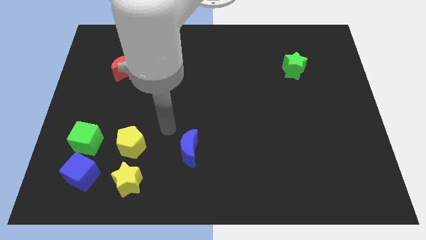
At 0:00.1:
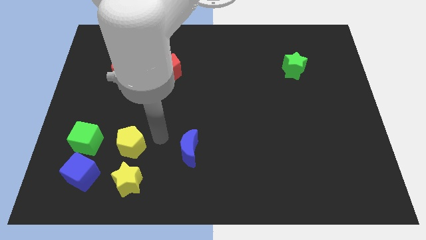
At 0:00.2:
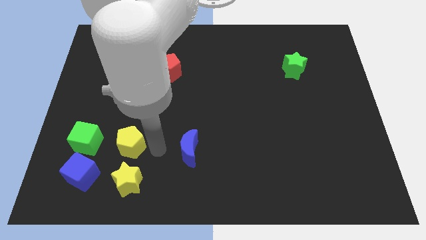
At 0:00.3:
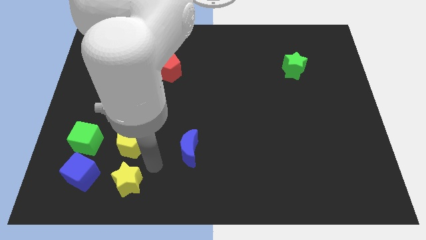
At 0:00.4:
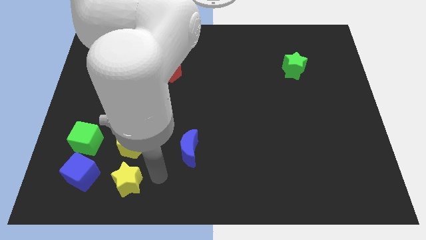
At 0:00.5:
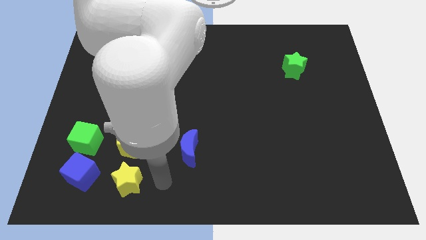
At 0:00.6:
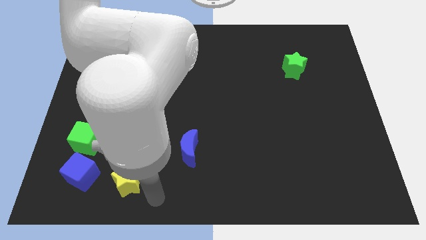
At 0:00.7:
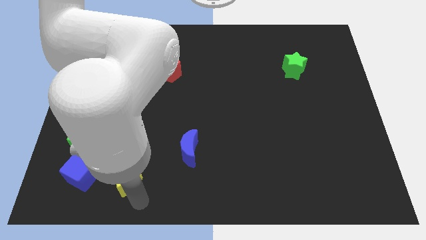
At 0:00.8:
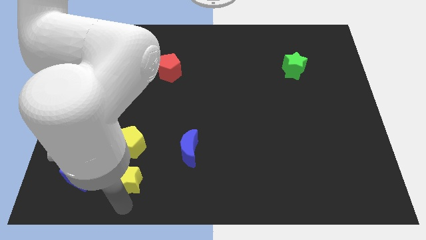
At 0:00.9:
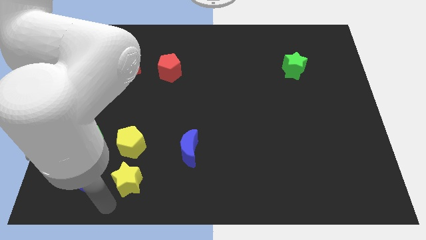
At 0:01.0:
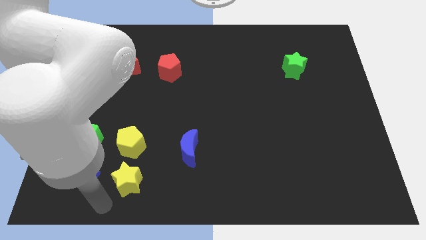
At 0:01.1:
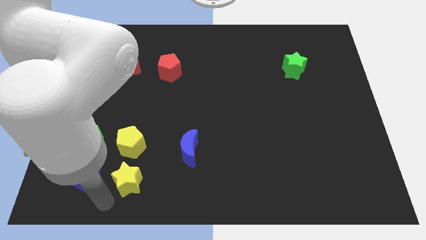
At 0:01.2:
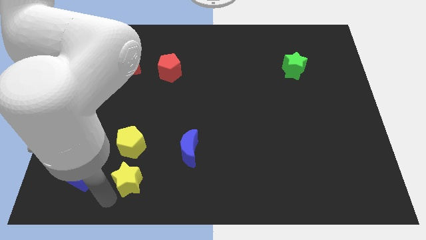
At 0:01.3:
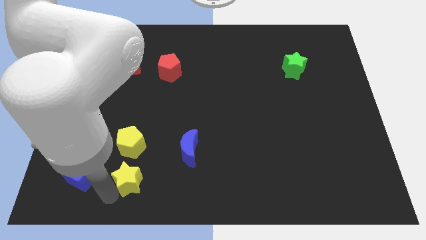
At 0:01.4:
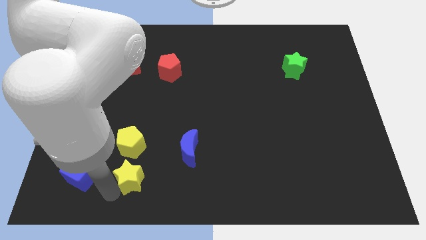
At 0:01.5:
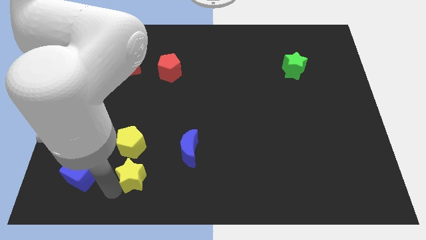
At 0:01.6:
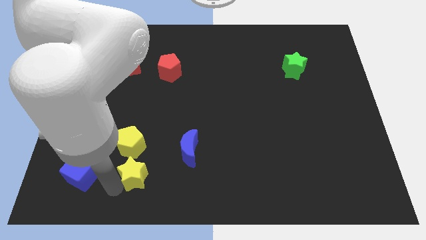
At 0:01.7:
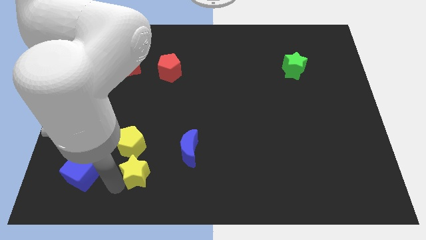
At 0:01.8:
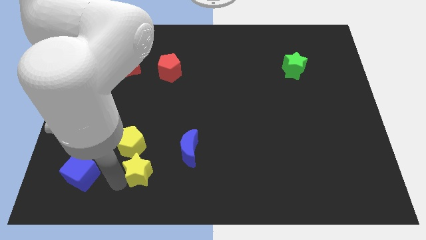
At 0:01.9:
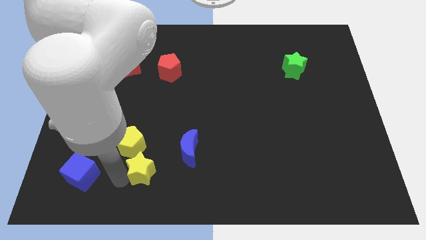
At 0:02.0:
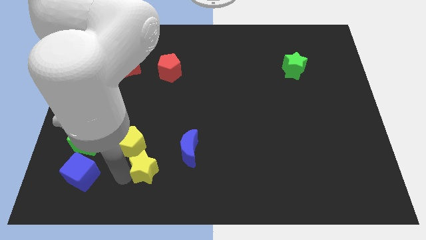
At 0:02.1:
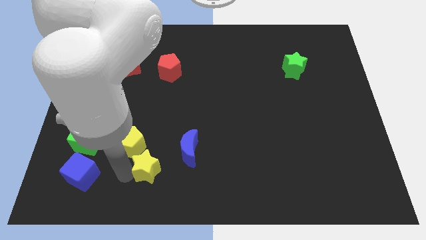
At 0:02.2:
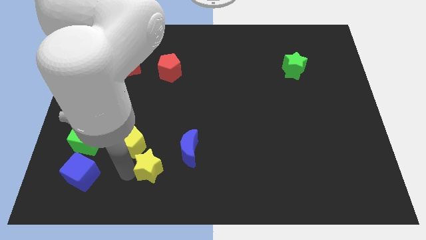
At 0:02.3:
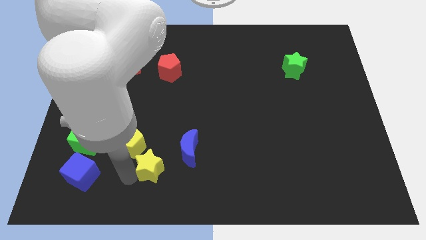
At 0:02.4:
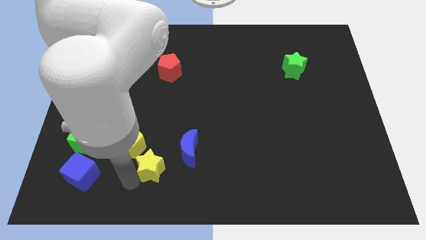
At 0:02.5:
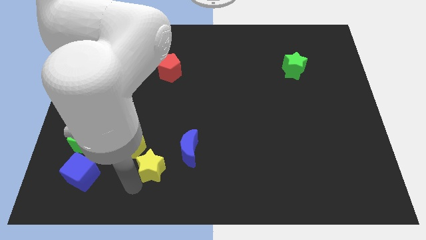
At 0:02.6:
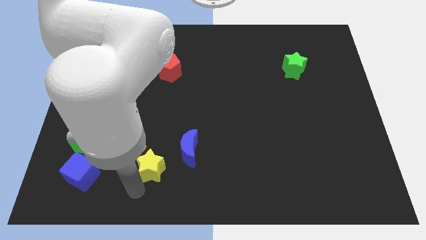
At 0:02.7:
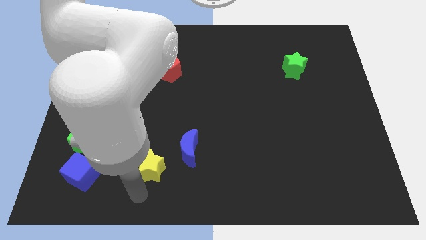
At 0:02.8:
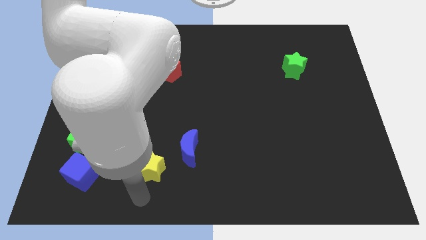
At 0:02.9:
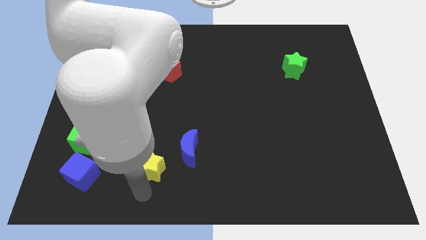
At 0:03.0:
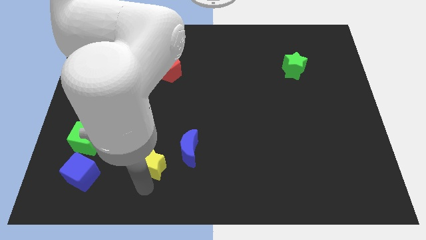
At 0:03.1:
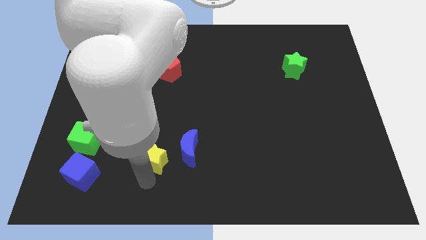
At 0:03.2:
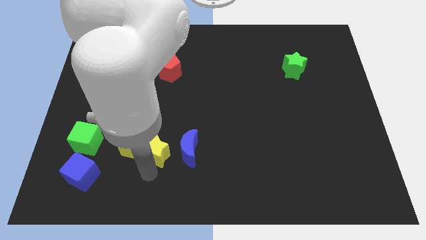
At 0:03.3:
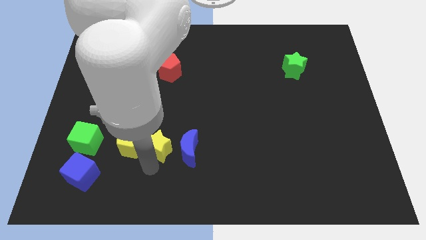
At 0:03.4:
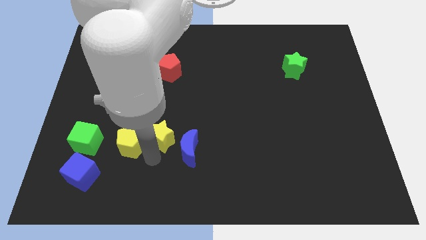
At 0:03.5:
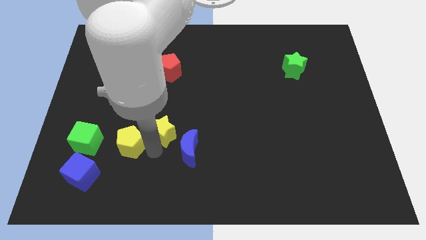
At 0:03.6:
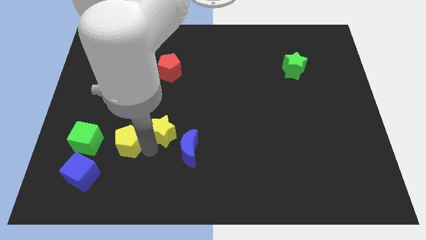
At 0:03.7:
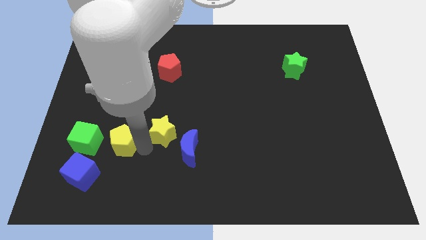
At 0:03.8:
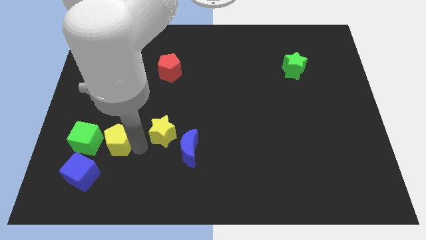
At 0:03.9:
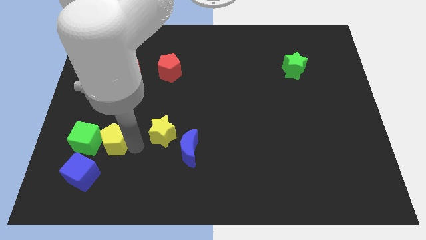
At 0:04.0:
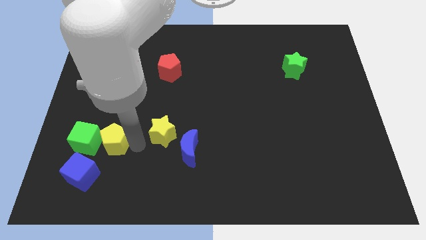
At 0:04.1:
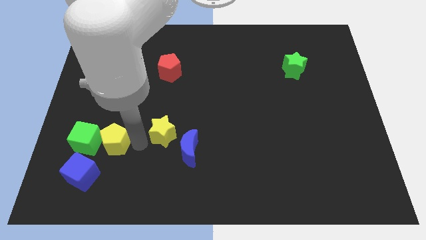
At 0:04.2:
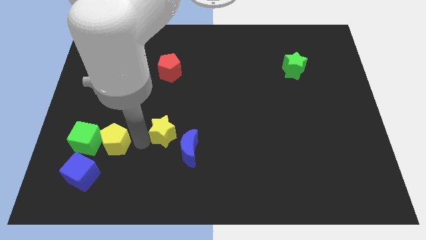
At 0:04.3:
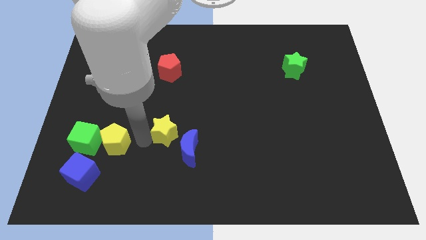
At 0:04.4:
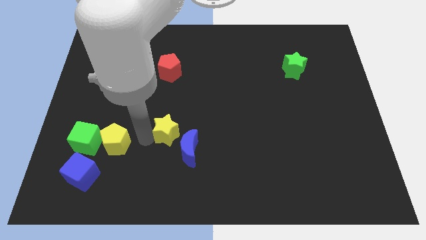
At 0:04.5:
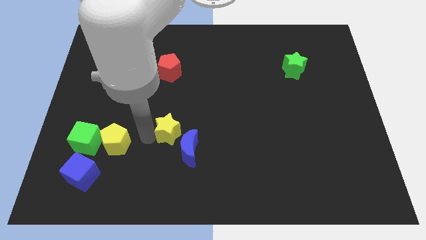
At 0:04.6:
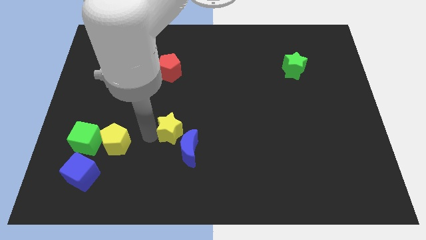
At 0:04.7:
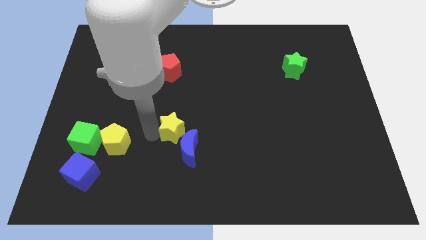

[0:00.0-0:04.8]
move the yellow star to the middle of the board

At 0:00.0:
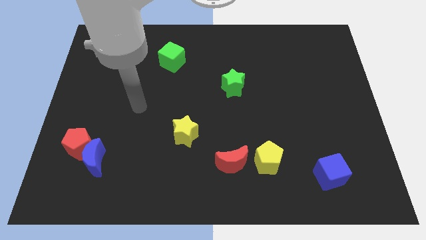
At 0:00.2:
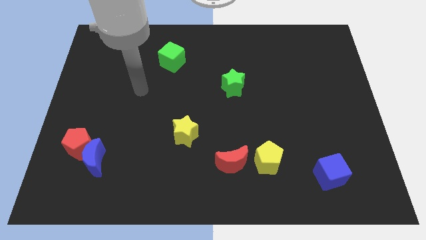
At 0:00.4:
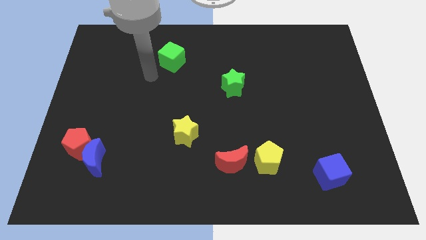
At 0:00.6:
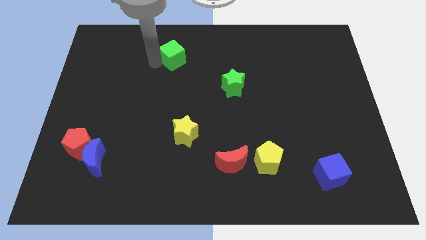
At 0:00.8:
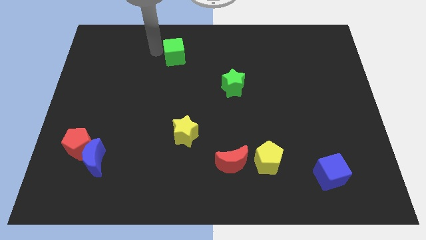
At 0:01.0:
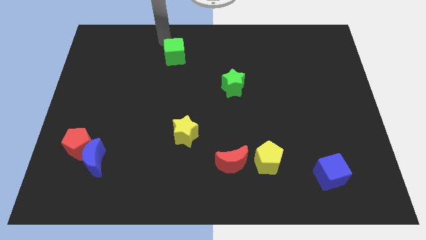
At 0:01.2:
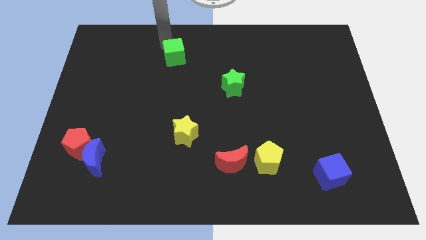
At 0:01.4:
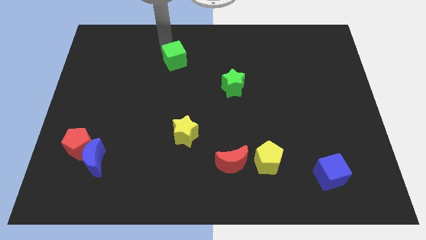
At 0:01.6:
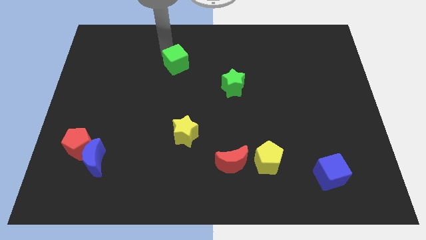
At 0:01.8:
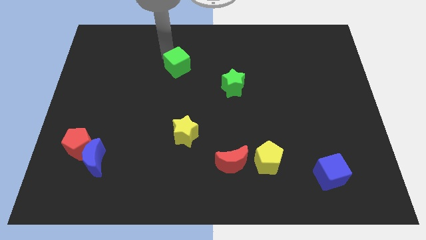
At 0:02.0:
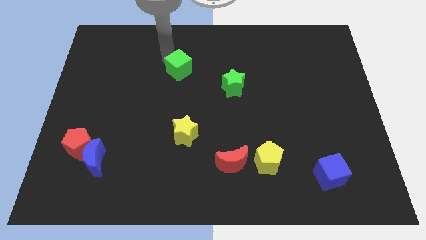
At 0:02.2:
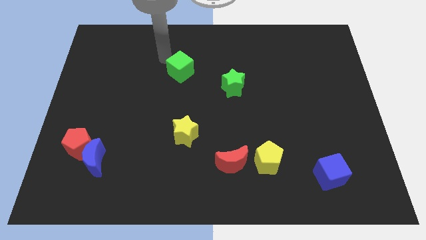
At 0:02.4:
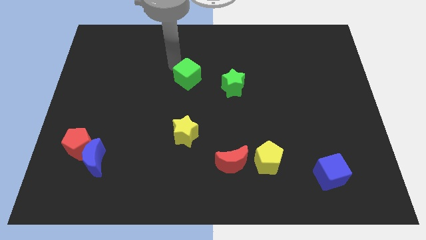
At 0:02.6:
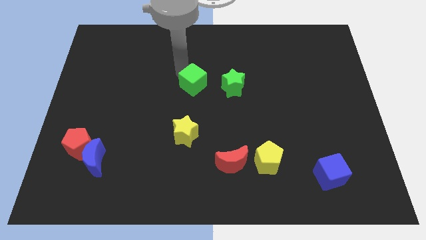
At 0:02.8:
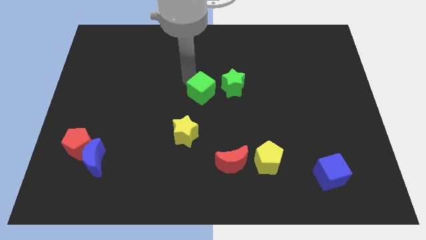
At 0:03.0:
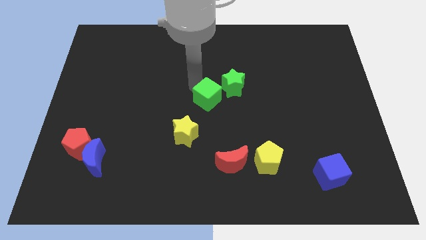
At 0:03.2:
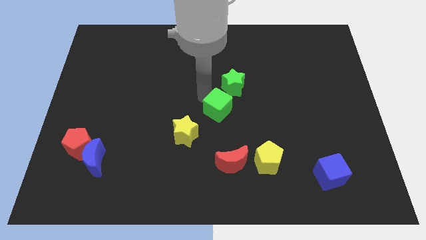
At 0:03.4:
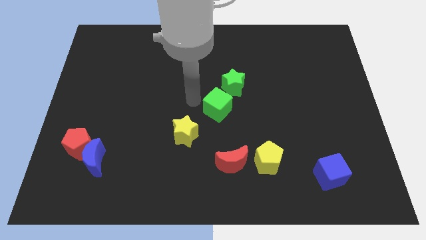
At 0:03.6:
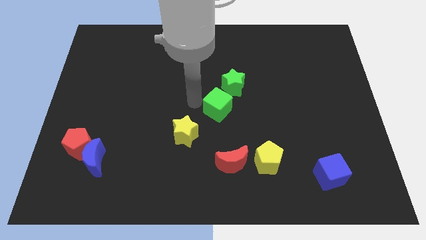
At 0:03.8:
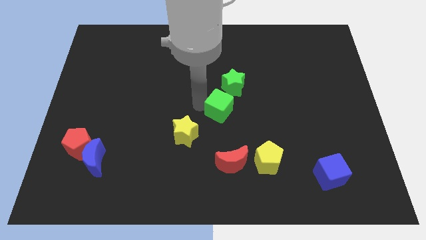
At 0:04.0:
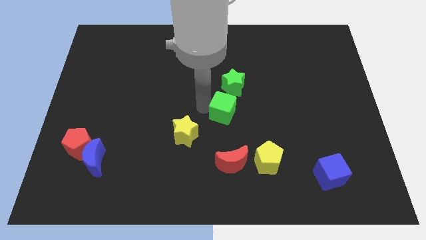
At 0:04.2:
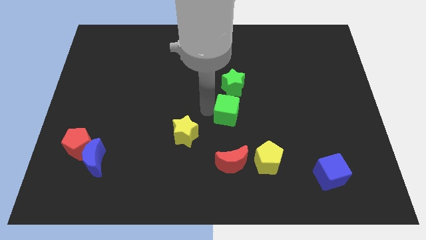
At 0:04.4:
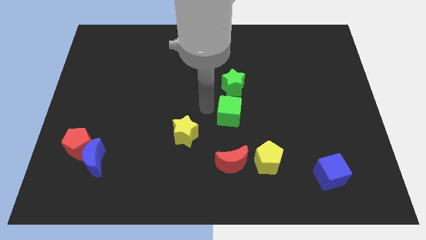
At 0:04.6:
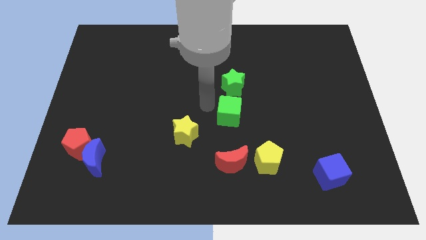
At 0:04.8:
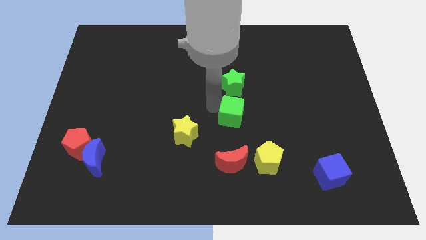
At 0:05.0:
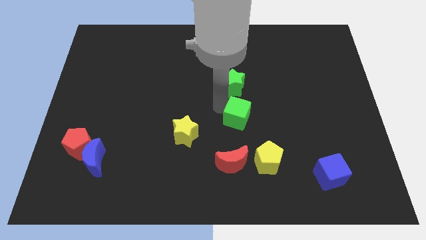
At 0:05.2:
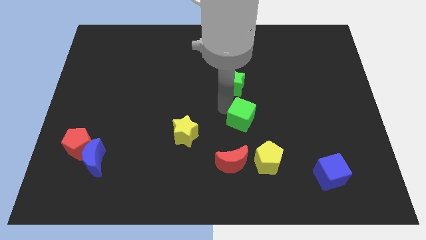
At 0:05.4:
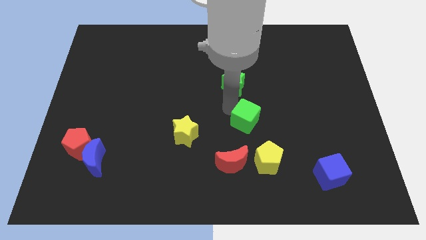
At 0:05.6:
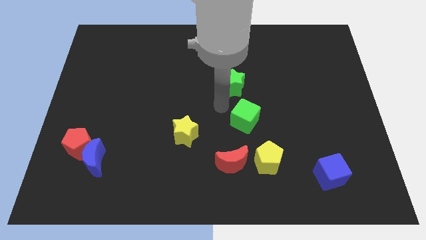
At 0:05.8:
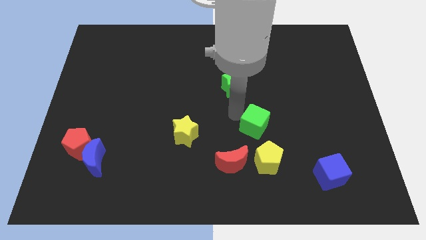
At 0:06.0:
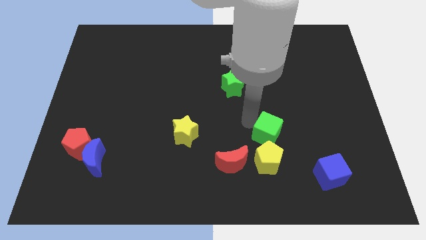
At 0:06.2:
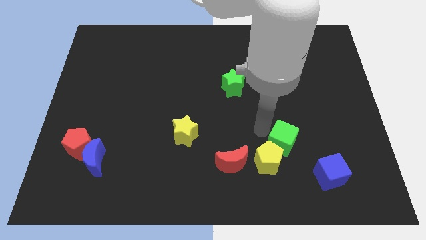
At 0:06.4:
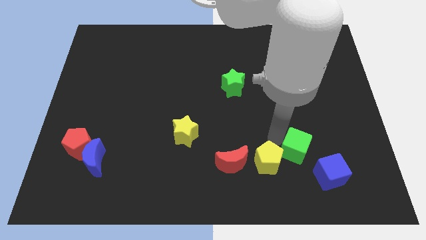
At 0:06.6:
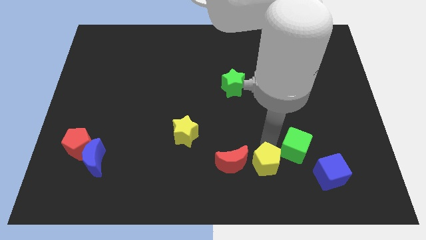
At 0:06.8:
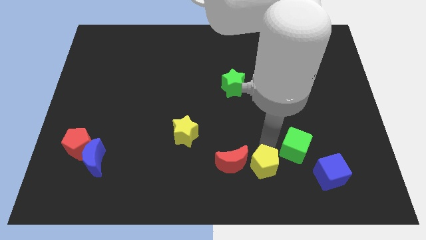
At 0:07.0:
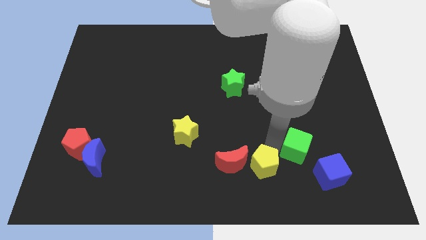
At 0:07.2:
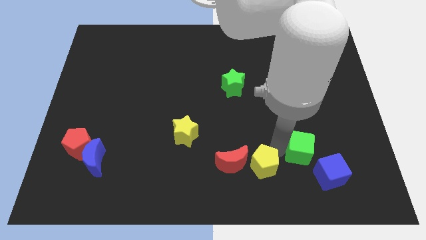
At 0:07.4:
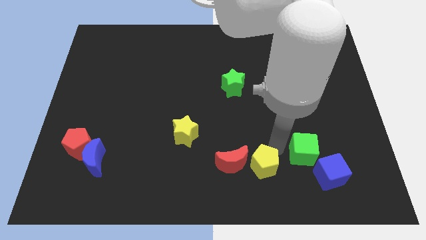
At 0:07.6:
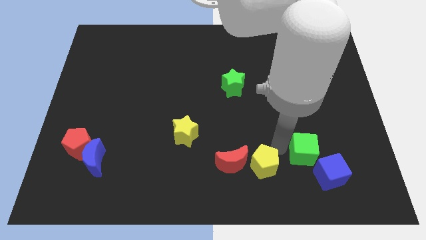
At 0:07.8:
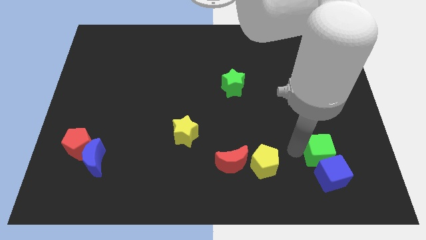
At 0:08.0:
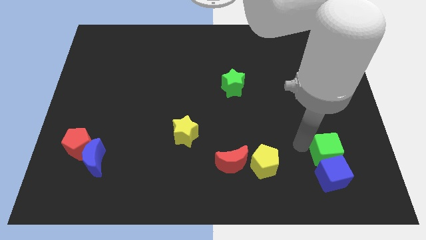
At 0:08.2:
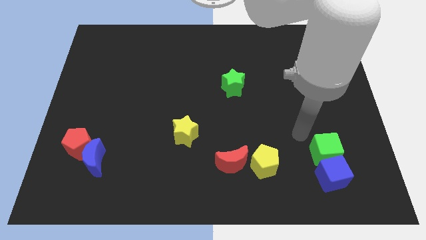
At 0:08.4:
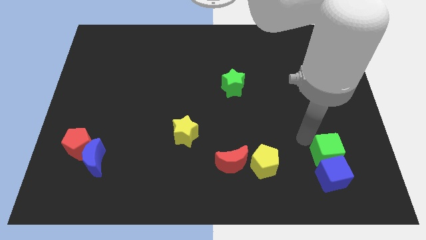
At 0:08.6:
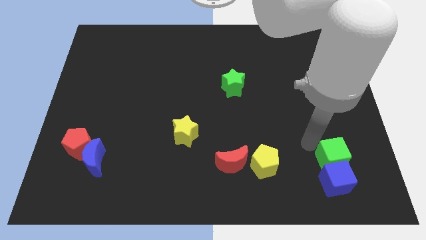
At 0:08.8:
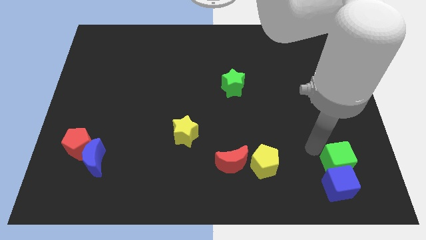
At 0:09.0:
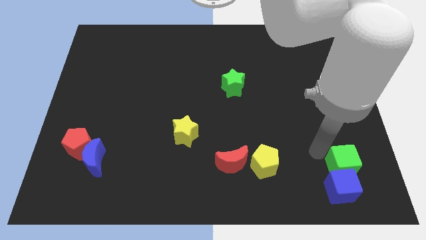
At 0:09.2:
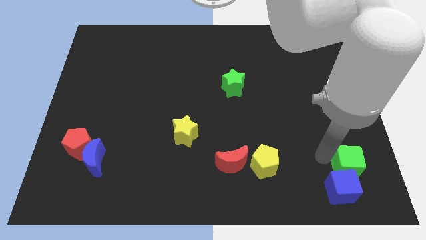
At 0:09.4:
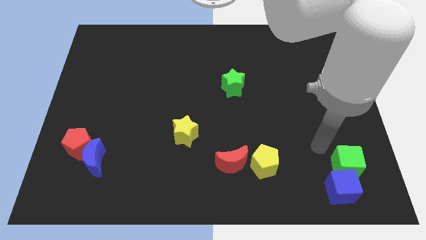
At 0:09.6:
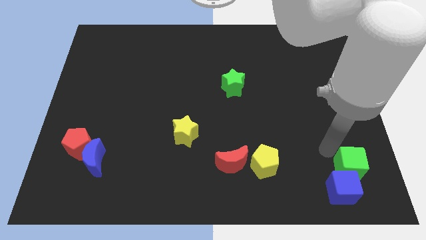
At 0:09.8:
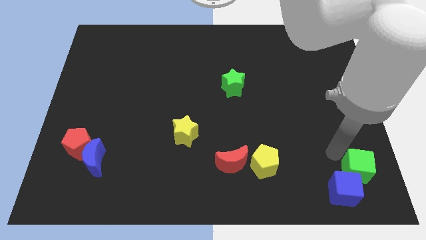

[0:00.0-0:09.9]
slide the green cube to the bottom right
